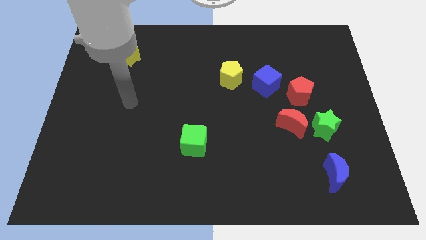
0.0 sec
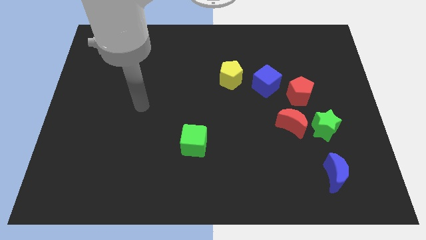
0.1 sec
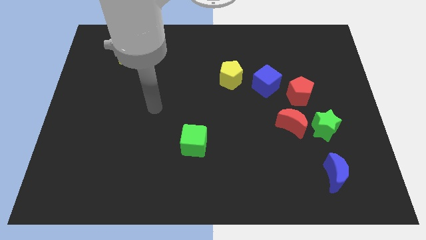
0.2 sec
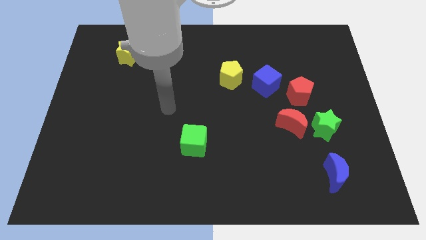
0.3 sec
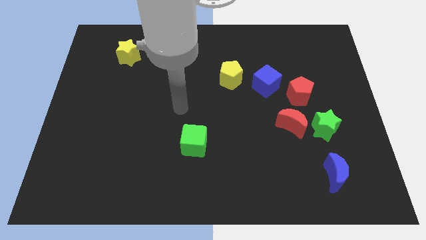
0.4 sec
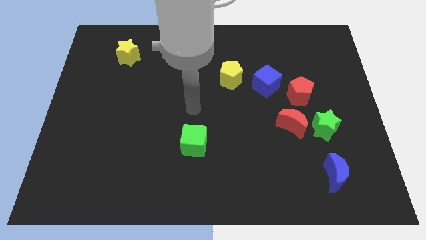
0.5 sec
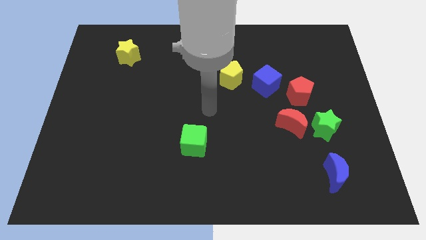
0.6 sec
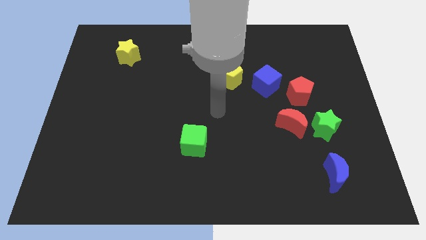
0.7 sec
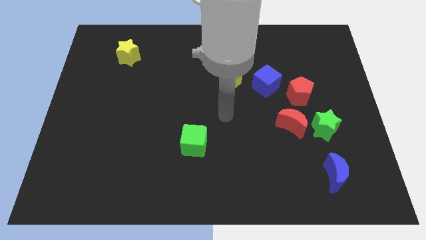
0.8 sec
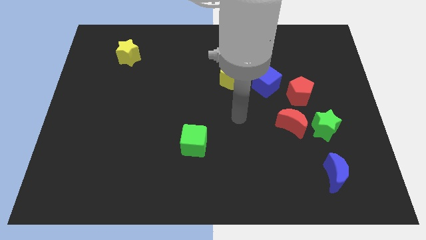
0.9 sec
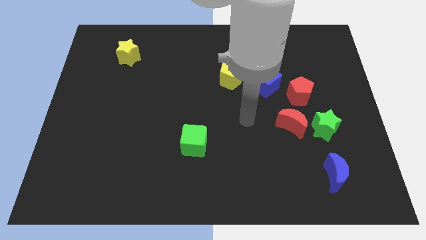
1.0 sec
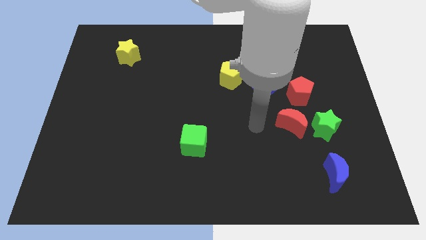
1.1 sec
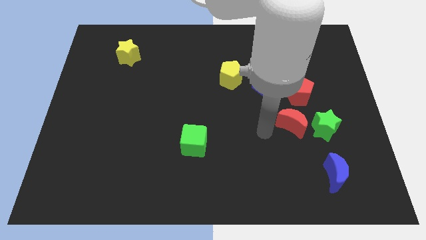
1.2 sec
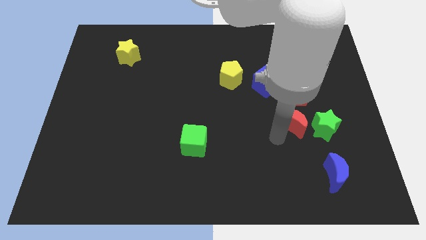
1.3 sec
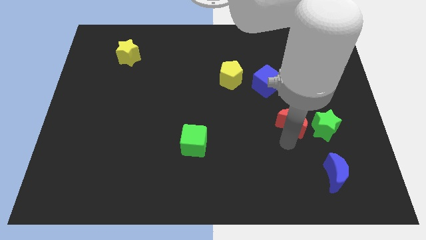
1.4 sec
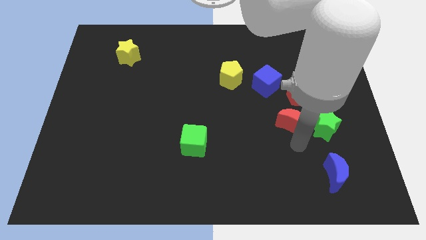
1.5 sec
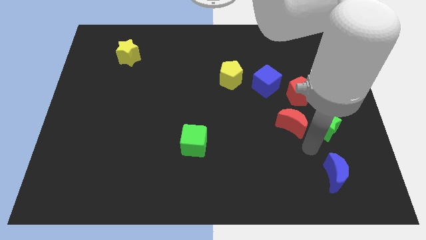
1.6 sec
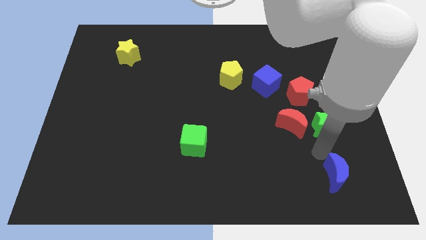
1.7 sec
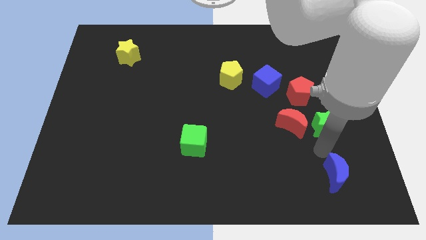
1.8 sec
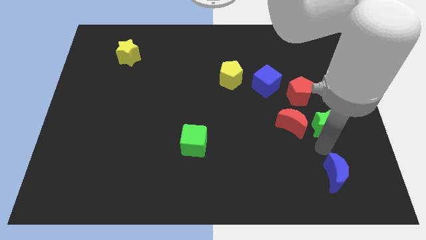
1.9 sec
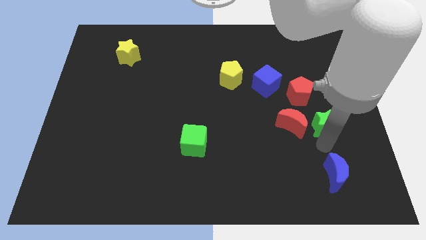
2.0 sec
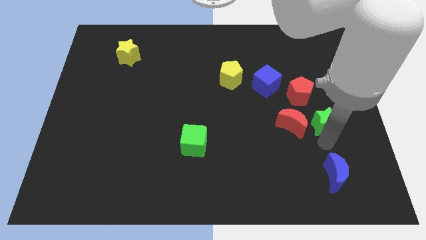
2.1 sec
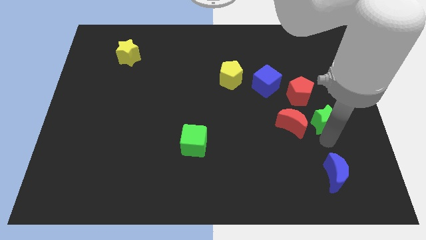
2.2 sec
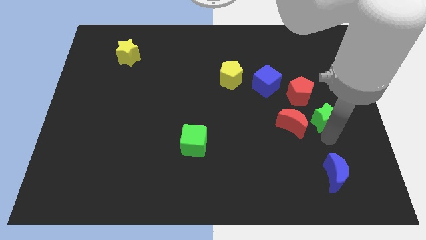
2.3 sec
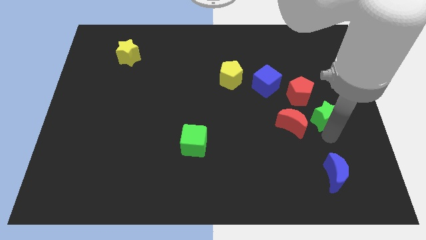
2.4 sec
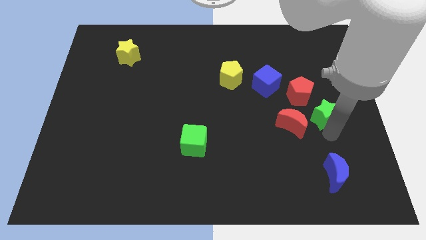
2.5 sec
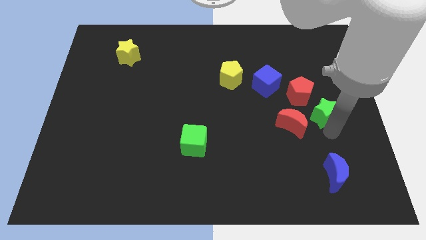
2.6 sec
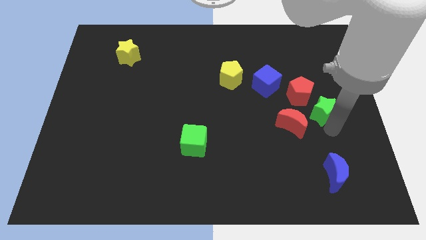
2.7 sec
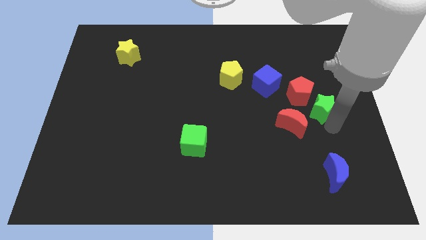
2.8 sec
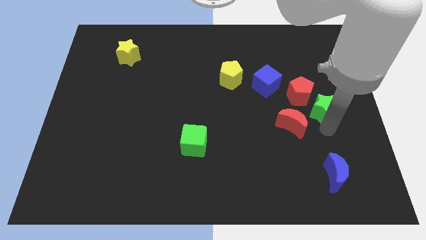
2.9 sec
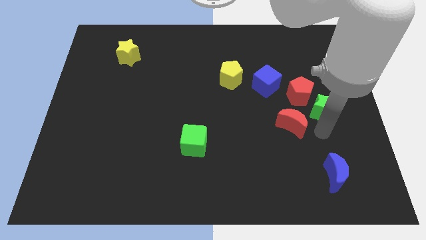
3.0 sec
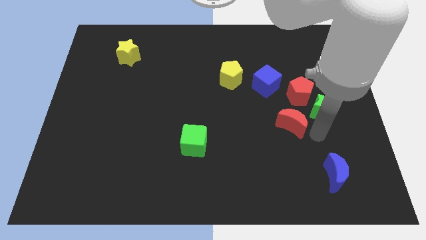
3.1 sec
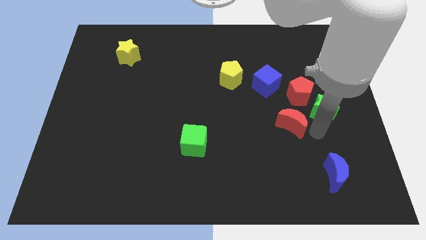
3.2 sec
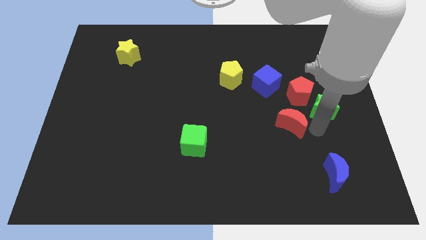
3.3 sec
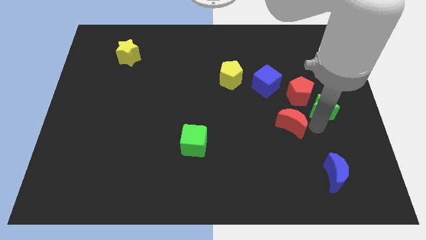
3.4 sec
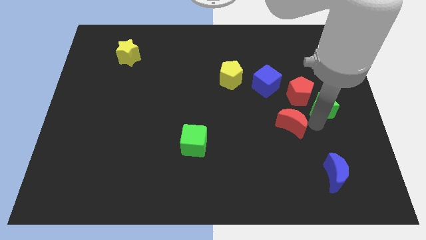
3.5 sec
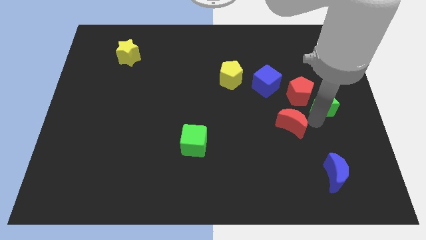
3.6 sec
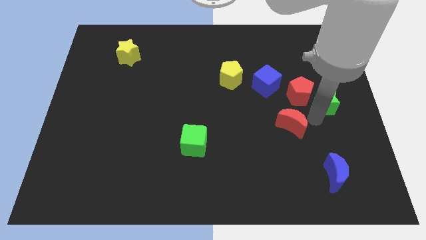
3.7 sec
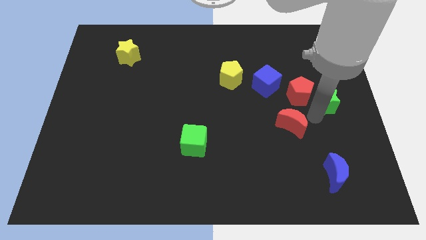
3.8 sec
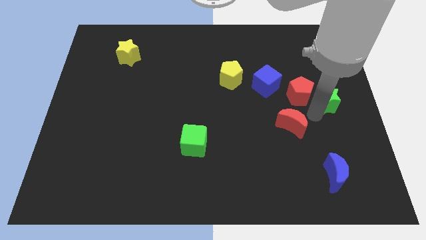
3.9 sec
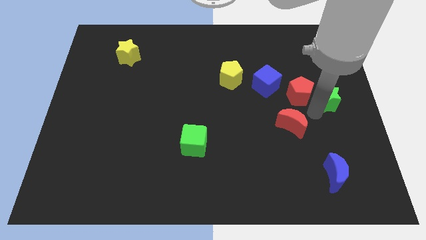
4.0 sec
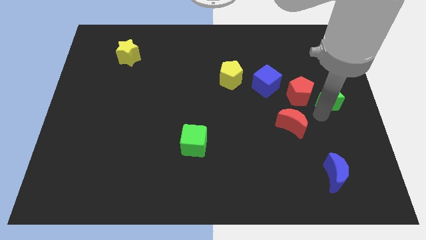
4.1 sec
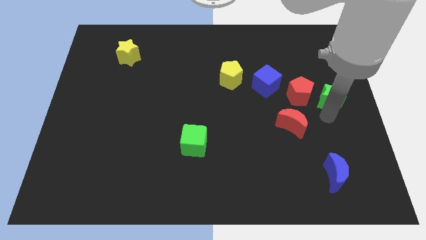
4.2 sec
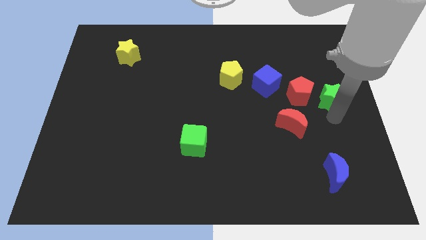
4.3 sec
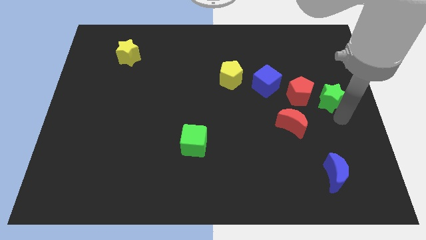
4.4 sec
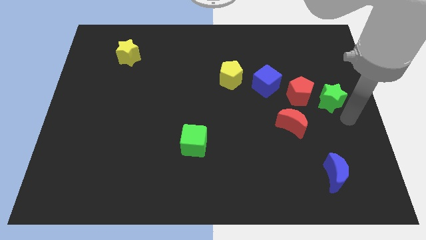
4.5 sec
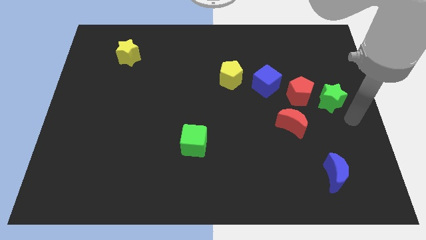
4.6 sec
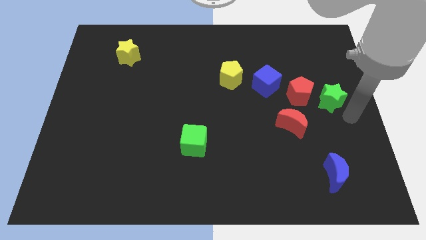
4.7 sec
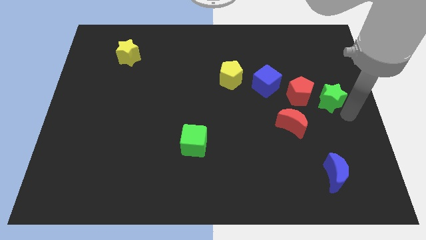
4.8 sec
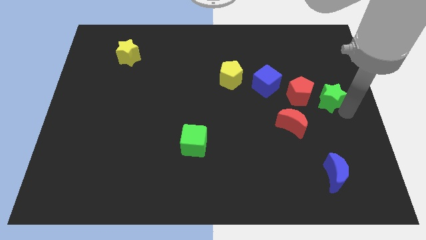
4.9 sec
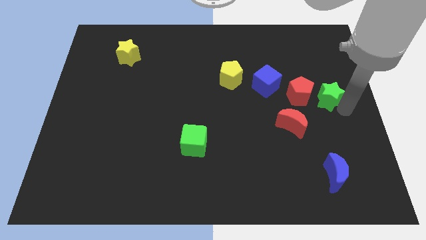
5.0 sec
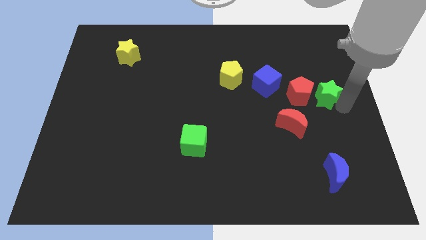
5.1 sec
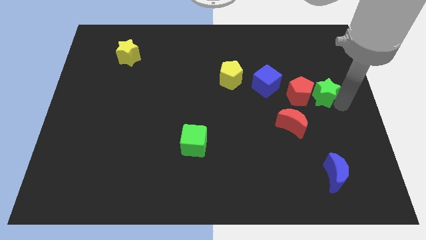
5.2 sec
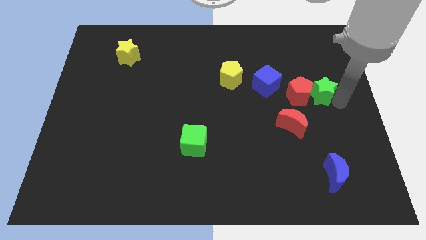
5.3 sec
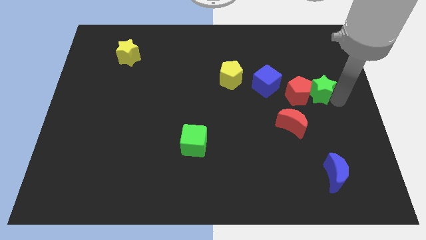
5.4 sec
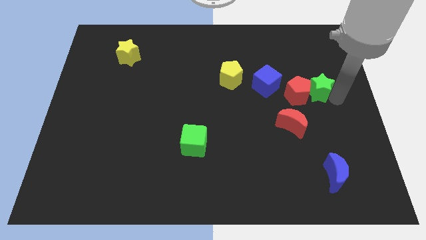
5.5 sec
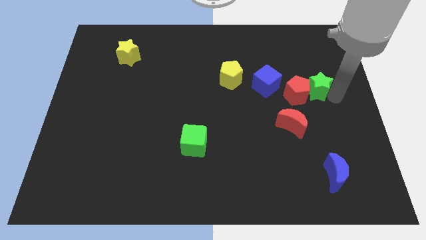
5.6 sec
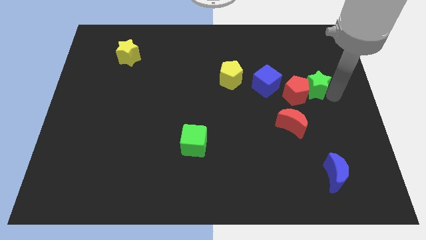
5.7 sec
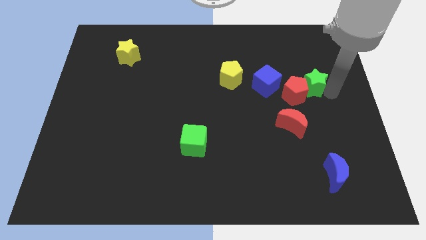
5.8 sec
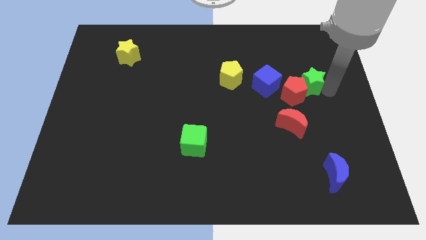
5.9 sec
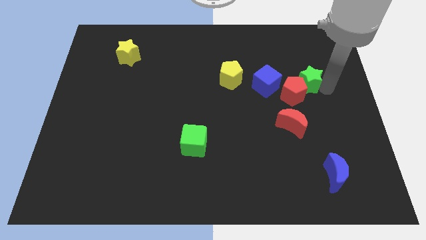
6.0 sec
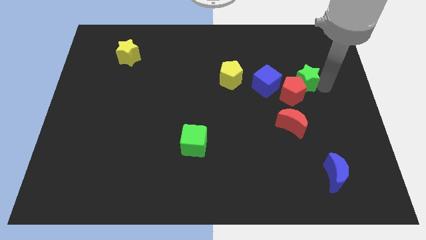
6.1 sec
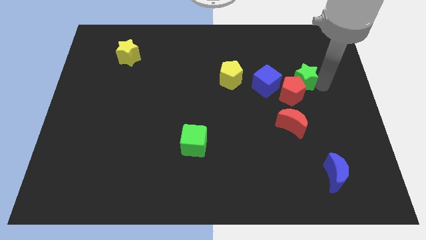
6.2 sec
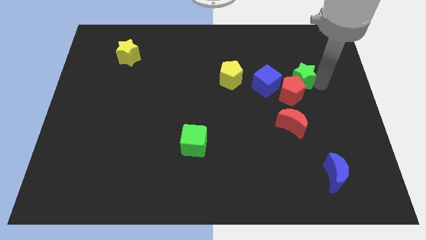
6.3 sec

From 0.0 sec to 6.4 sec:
push the green star above the red moon

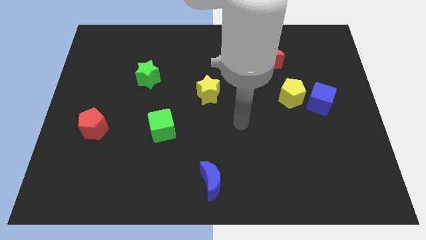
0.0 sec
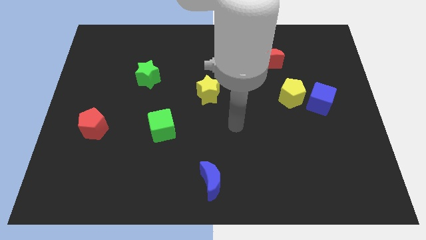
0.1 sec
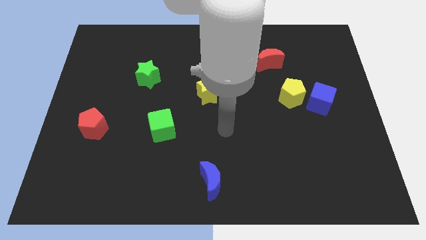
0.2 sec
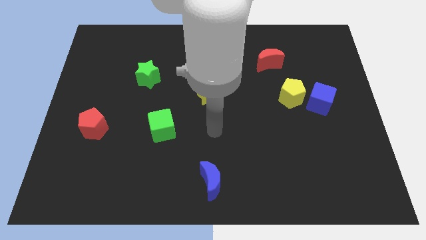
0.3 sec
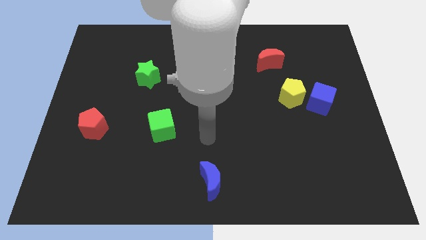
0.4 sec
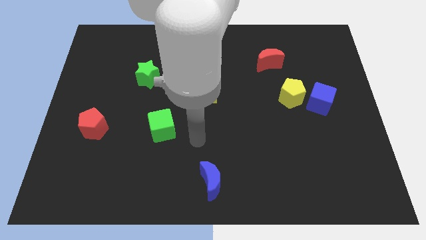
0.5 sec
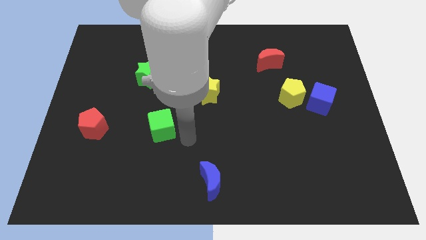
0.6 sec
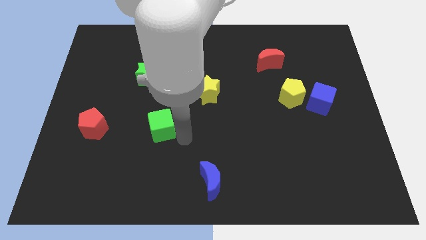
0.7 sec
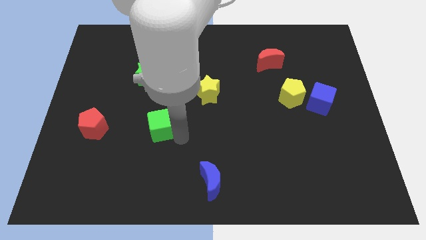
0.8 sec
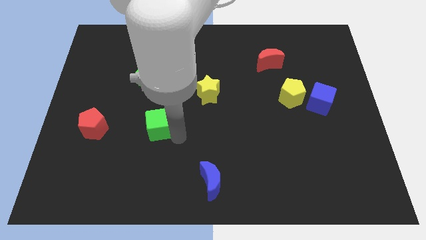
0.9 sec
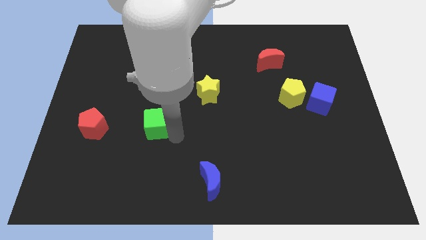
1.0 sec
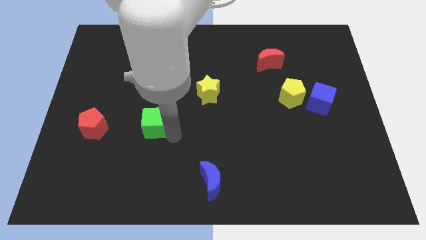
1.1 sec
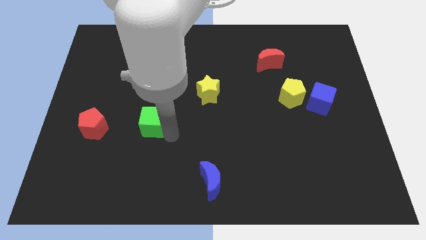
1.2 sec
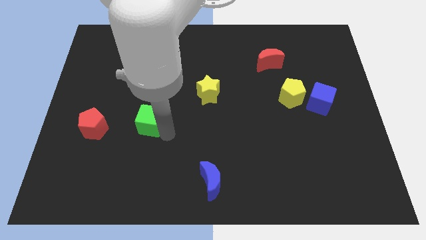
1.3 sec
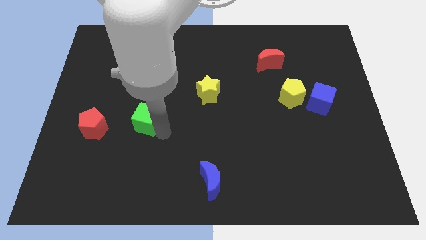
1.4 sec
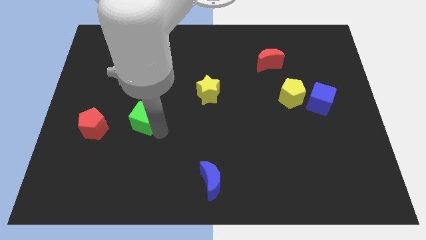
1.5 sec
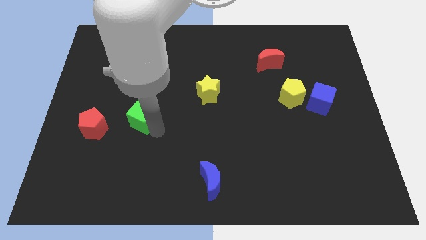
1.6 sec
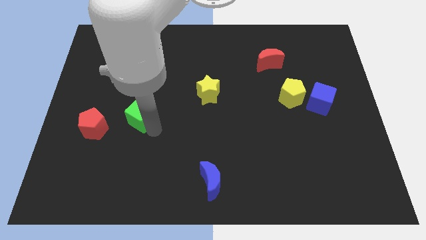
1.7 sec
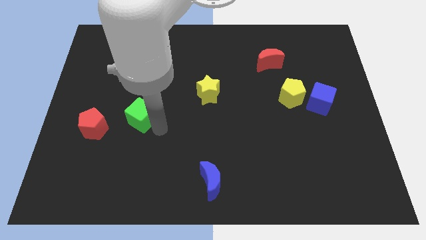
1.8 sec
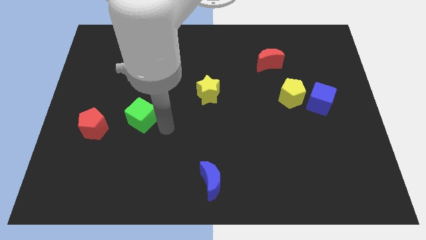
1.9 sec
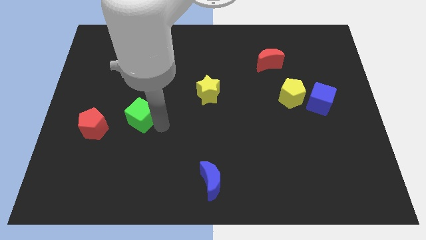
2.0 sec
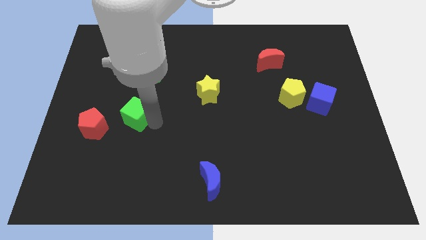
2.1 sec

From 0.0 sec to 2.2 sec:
push the green cube to the top right side of the red pentagon
